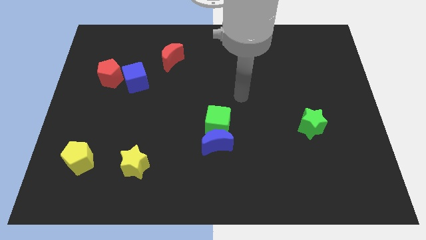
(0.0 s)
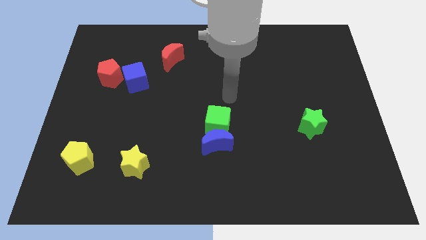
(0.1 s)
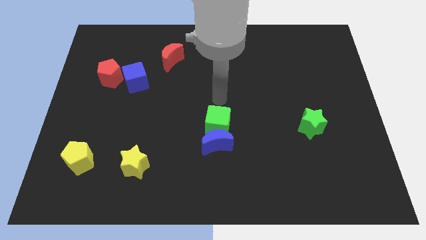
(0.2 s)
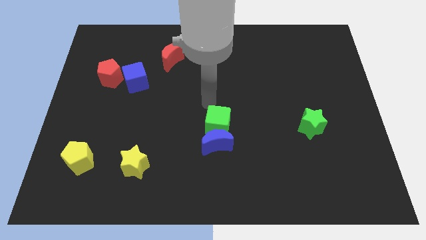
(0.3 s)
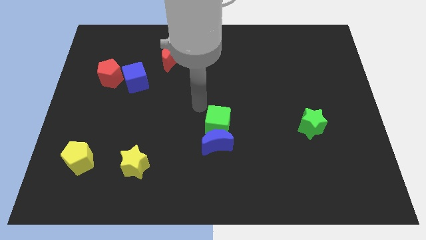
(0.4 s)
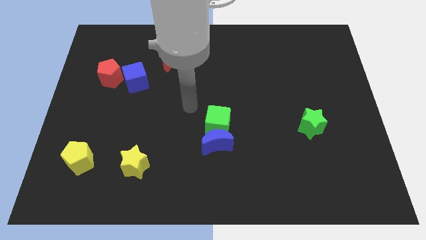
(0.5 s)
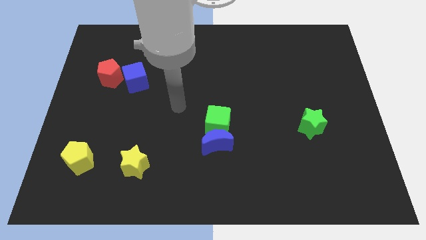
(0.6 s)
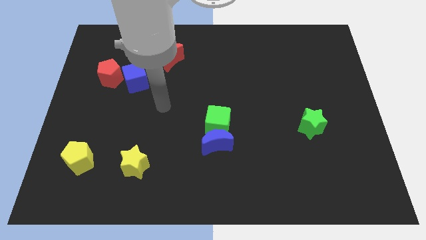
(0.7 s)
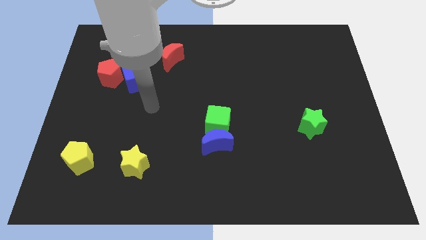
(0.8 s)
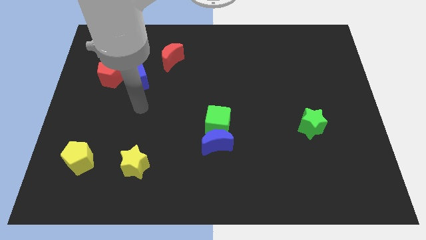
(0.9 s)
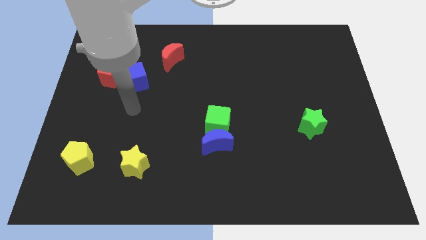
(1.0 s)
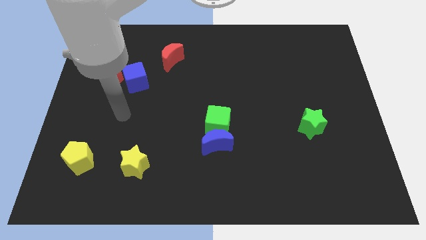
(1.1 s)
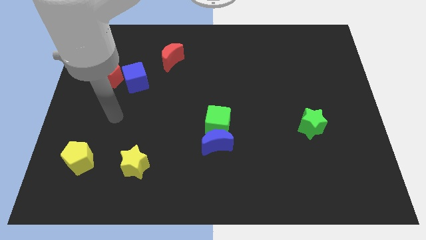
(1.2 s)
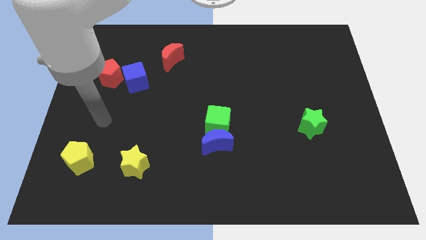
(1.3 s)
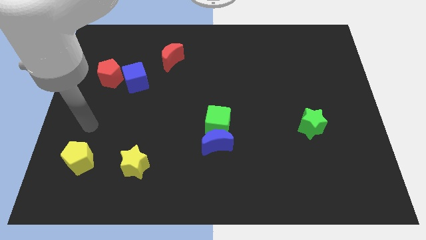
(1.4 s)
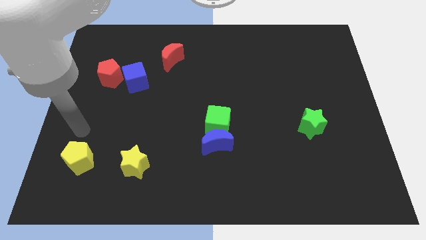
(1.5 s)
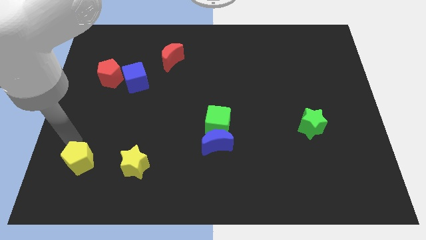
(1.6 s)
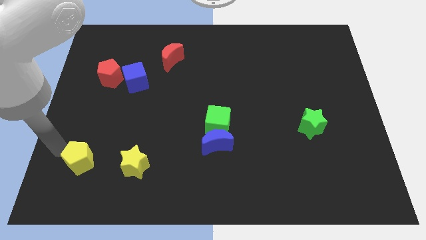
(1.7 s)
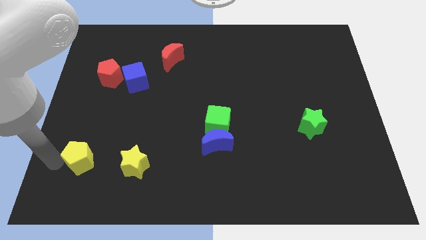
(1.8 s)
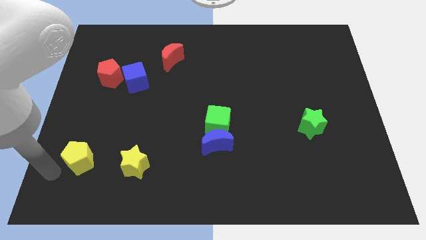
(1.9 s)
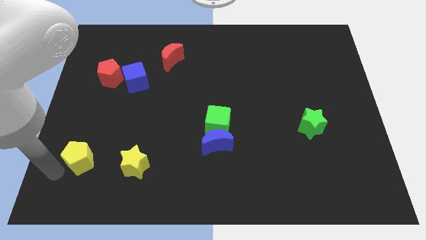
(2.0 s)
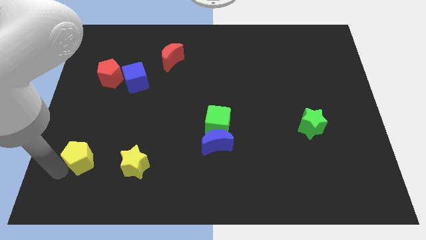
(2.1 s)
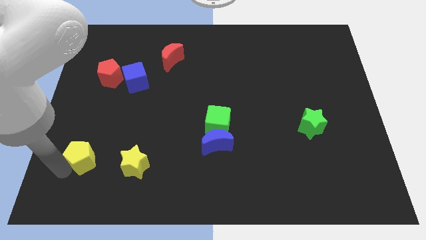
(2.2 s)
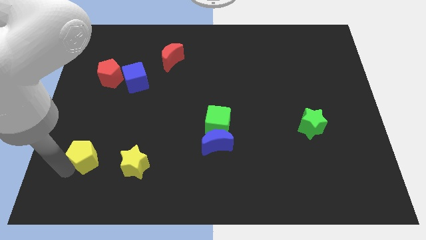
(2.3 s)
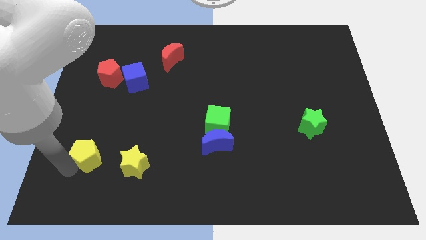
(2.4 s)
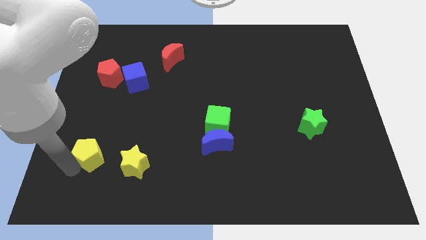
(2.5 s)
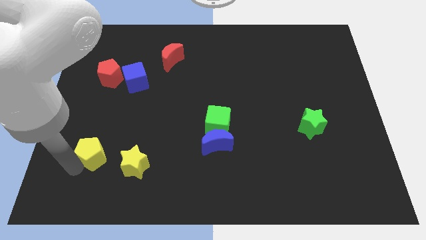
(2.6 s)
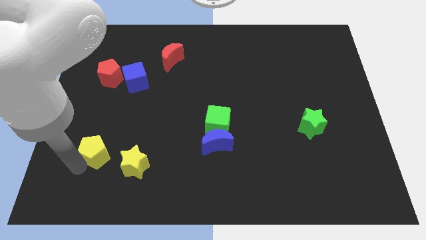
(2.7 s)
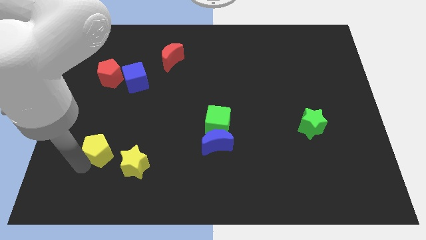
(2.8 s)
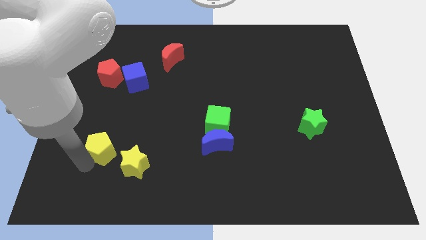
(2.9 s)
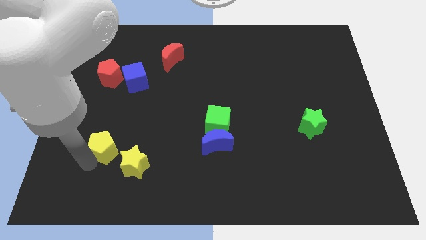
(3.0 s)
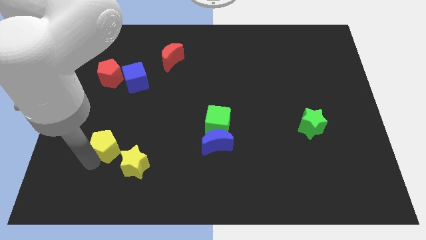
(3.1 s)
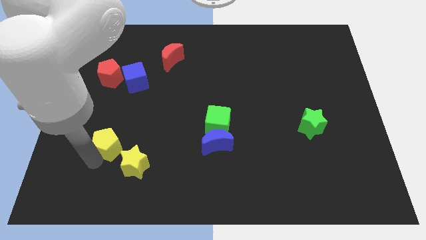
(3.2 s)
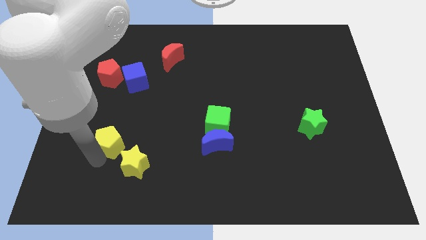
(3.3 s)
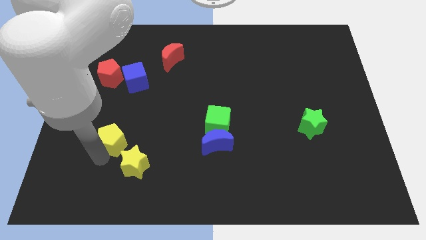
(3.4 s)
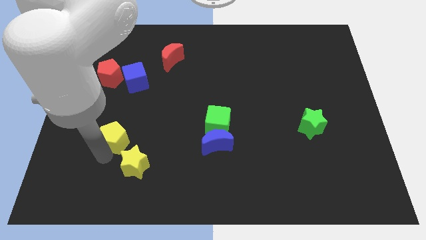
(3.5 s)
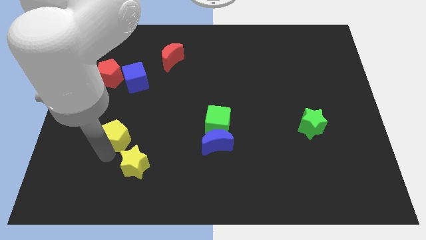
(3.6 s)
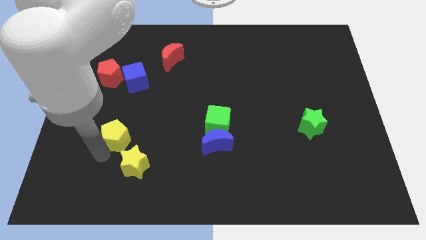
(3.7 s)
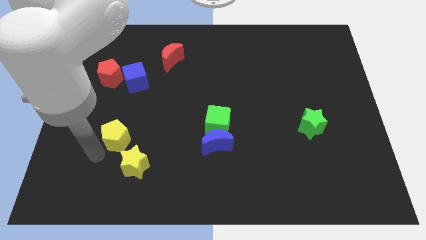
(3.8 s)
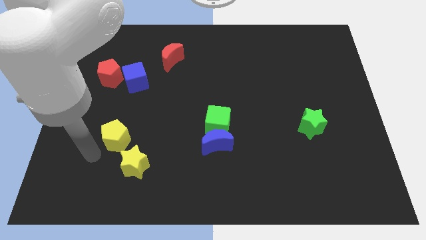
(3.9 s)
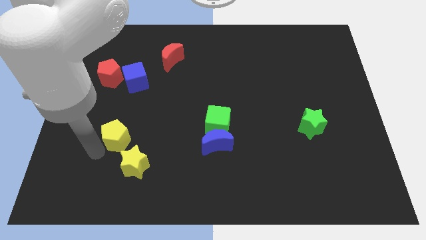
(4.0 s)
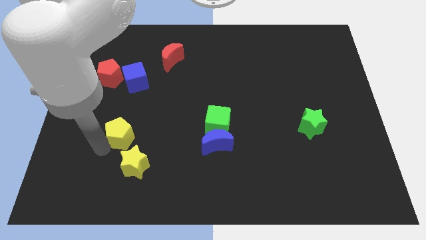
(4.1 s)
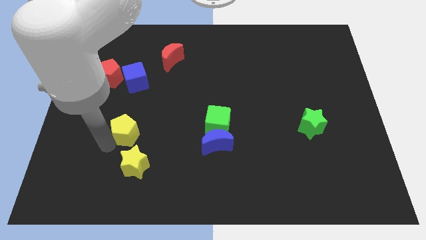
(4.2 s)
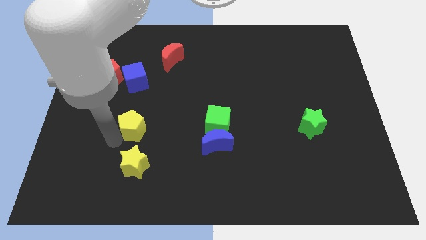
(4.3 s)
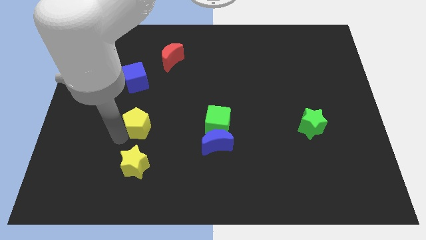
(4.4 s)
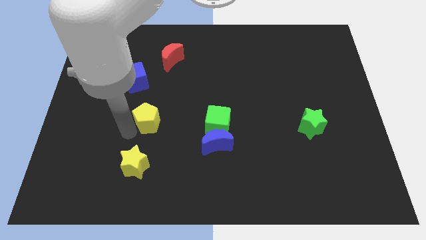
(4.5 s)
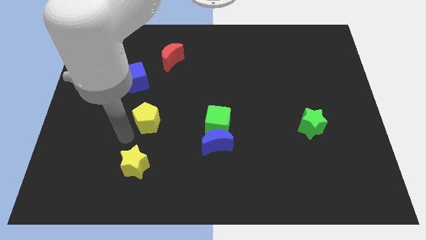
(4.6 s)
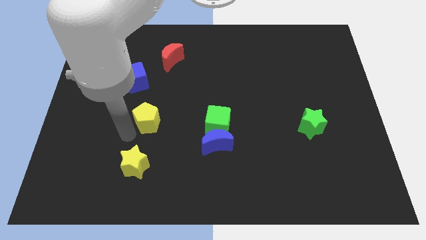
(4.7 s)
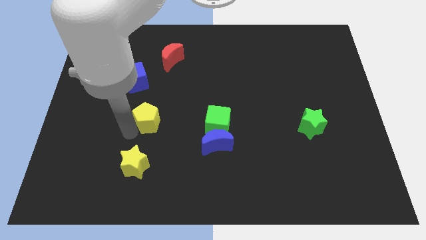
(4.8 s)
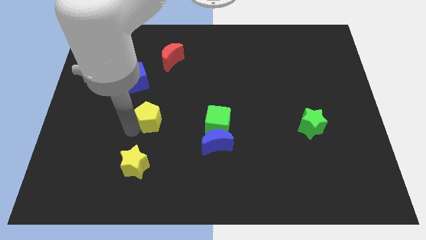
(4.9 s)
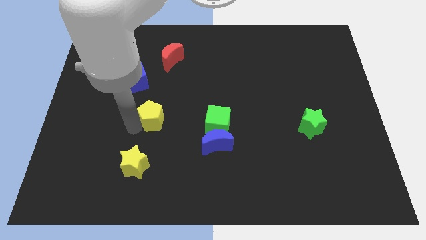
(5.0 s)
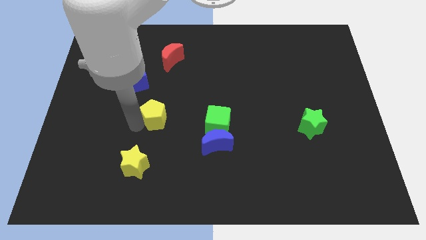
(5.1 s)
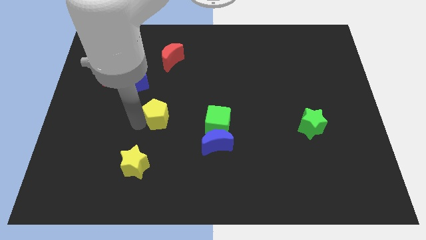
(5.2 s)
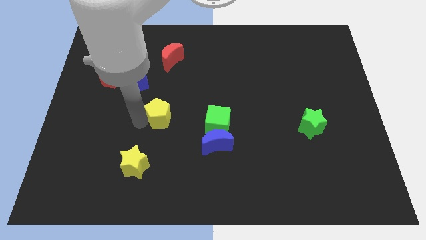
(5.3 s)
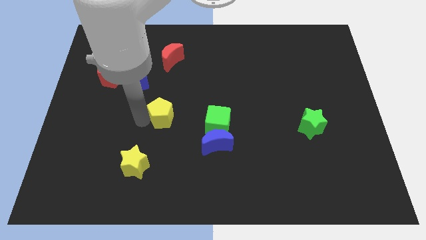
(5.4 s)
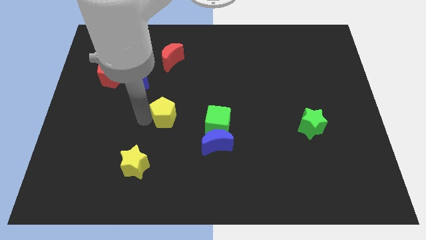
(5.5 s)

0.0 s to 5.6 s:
slide the yellow pentagon up and right

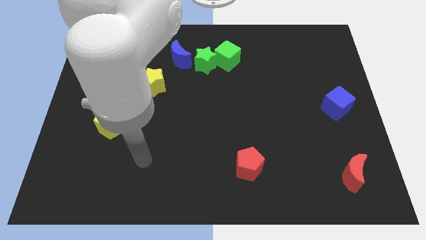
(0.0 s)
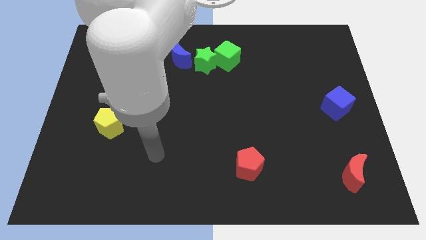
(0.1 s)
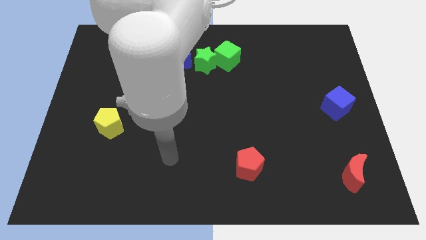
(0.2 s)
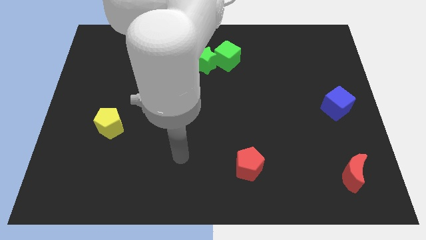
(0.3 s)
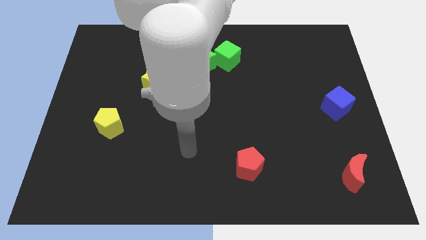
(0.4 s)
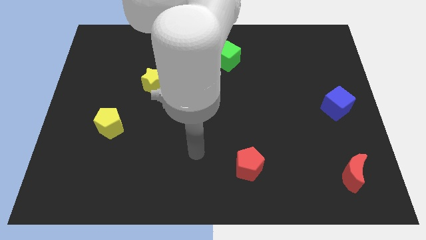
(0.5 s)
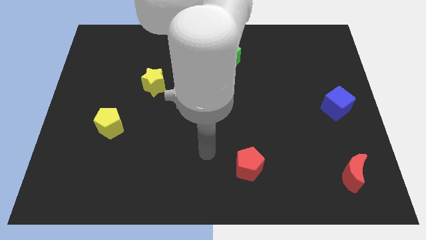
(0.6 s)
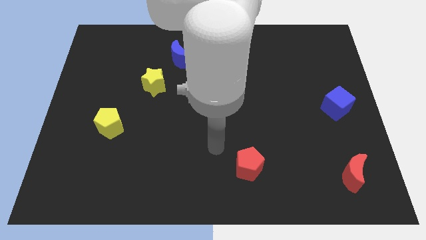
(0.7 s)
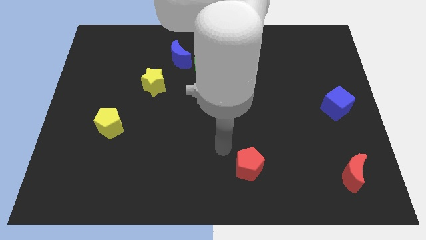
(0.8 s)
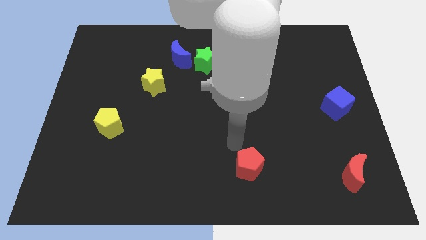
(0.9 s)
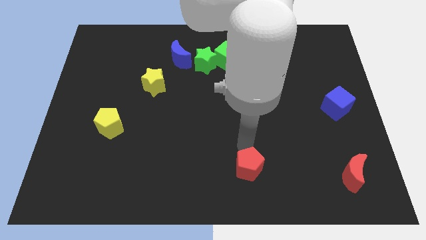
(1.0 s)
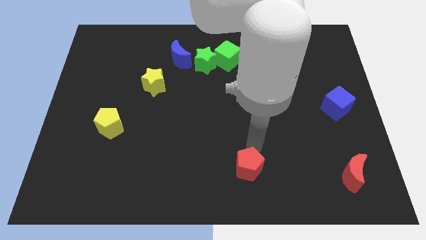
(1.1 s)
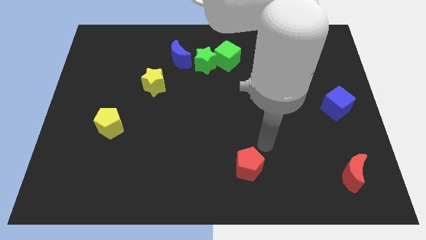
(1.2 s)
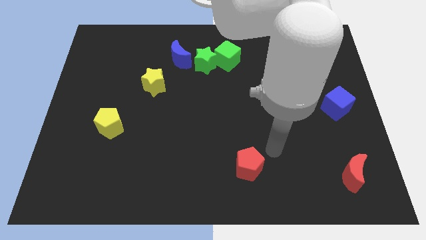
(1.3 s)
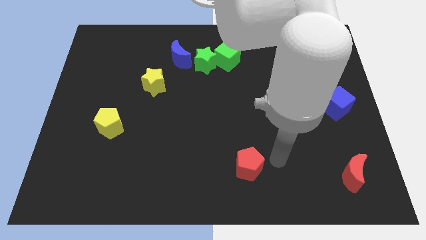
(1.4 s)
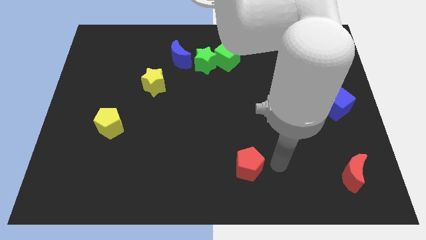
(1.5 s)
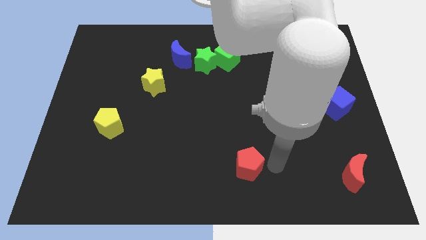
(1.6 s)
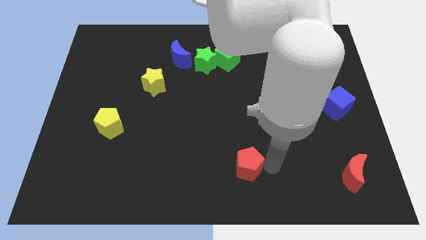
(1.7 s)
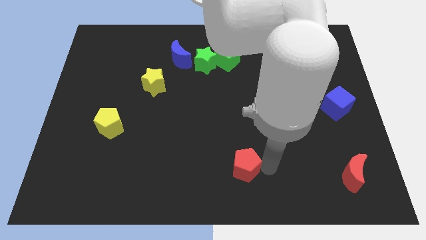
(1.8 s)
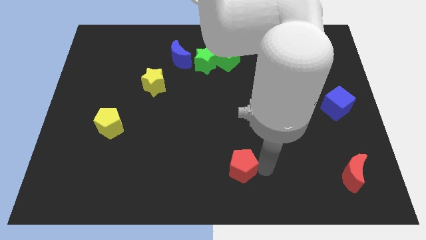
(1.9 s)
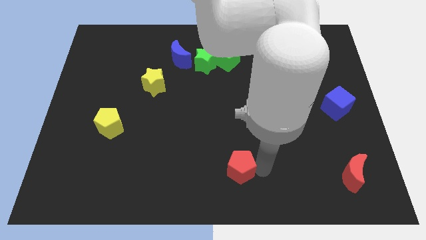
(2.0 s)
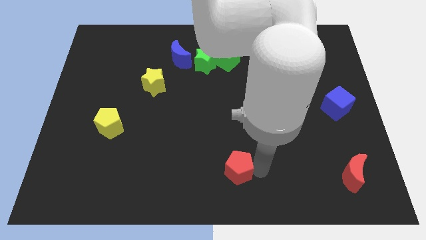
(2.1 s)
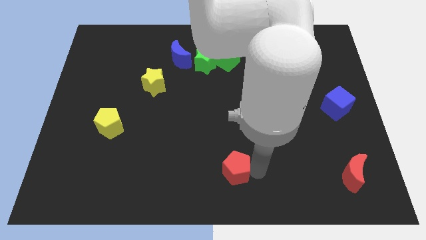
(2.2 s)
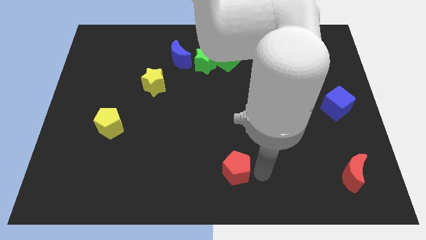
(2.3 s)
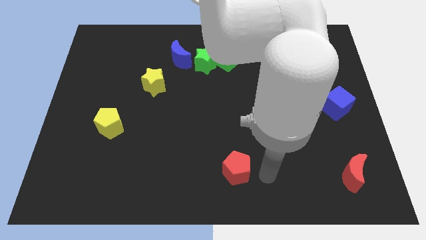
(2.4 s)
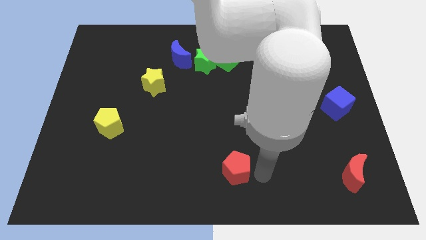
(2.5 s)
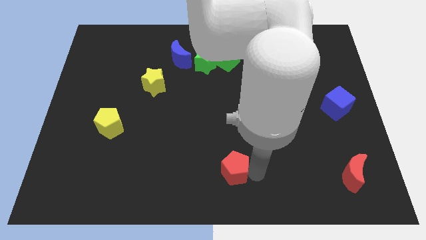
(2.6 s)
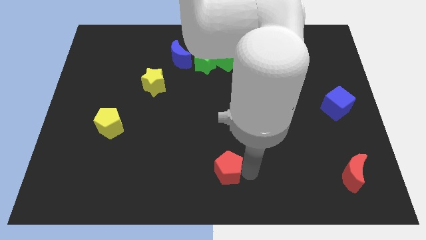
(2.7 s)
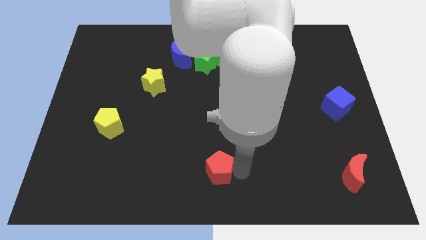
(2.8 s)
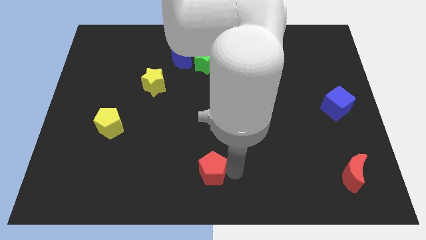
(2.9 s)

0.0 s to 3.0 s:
move the red pentagon a little bit left

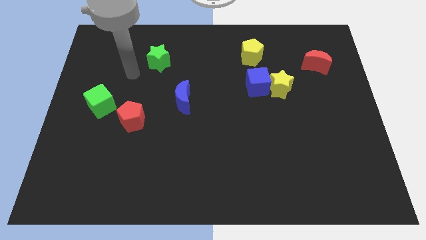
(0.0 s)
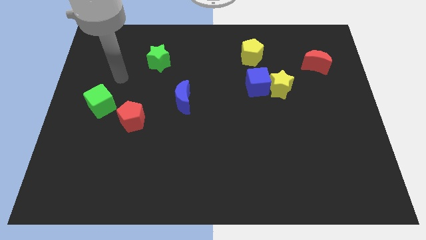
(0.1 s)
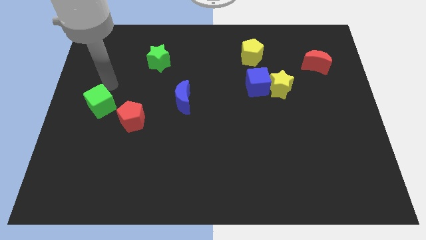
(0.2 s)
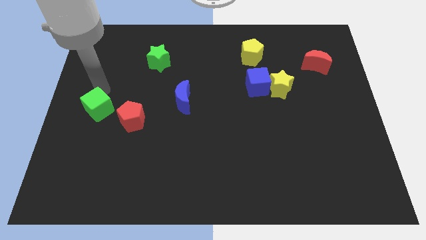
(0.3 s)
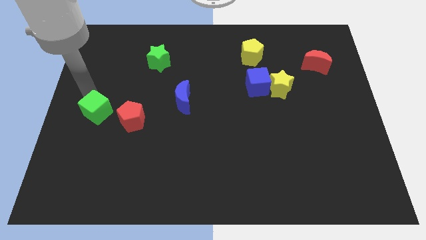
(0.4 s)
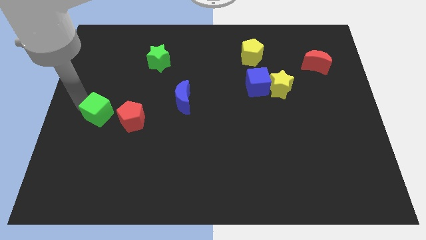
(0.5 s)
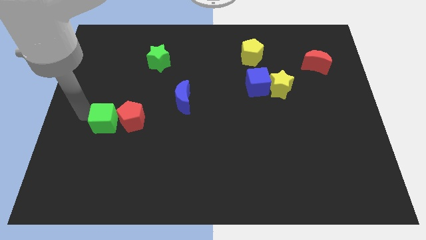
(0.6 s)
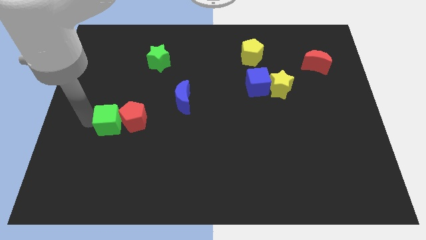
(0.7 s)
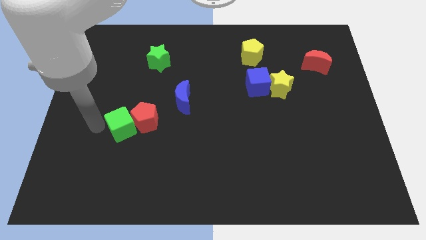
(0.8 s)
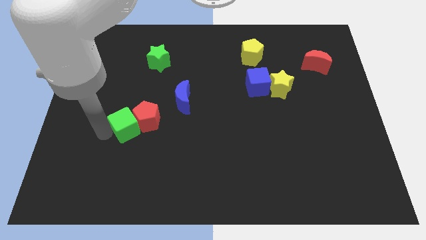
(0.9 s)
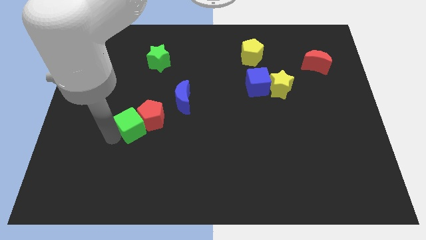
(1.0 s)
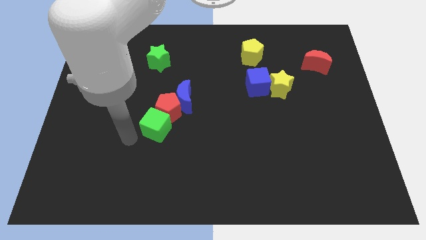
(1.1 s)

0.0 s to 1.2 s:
push the red pentagon up and then right a little bit
